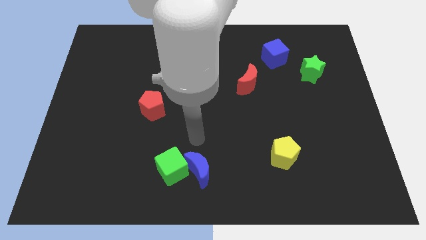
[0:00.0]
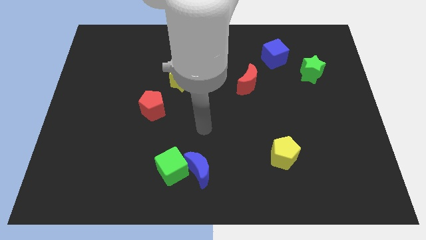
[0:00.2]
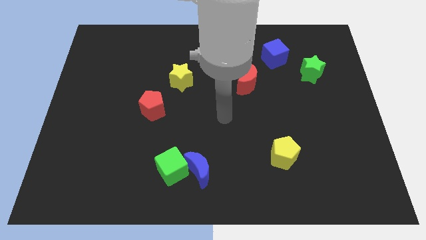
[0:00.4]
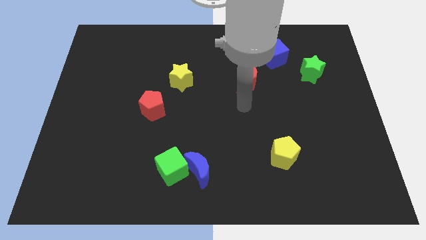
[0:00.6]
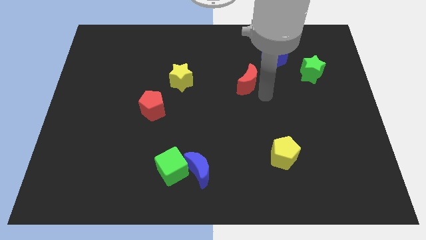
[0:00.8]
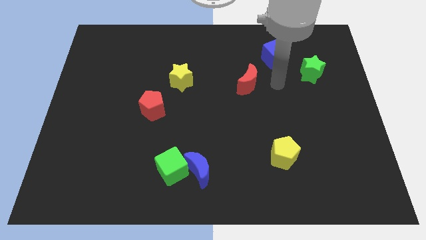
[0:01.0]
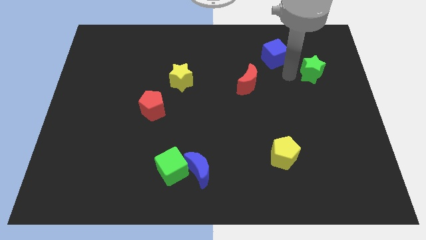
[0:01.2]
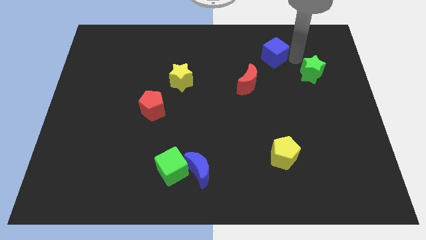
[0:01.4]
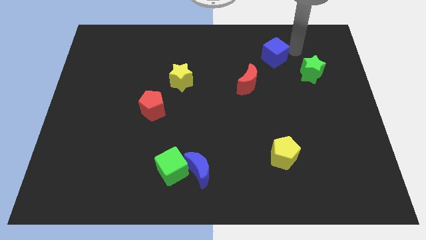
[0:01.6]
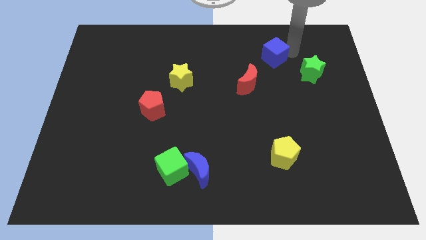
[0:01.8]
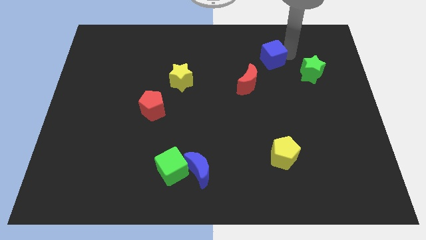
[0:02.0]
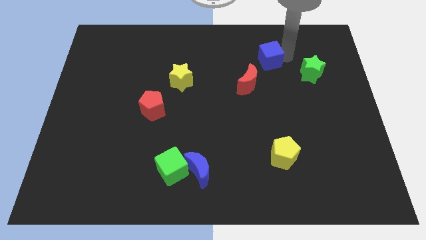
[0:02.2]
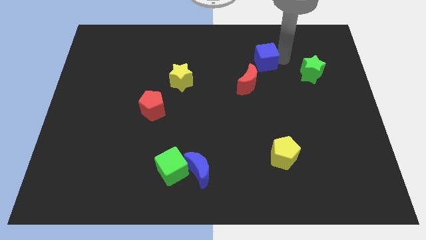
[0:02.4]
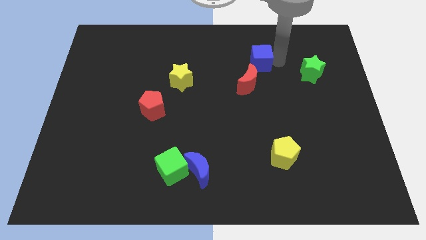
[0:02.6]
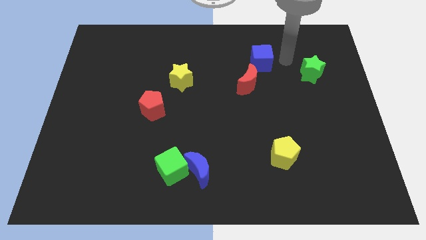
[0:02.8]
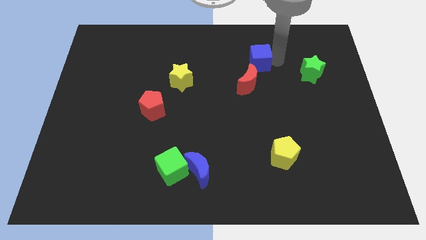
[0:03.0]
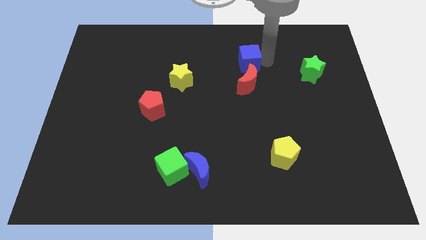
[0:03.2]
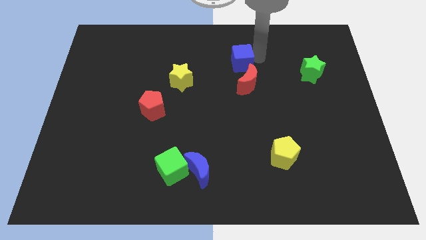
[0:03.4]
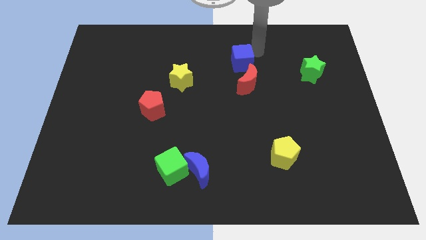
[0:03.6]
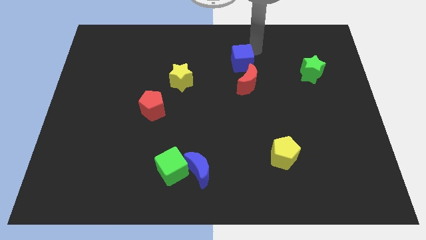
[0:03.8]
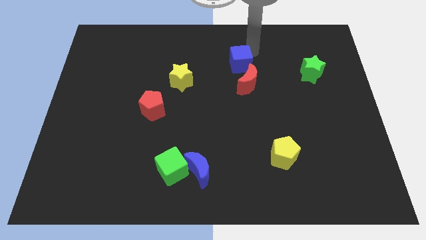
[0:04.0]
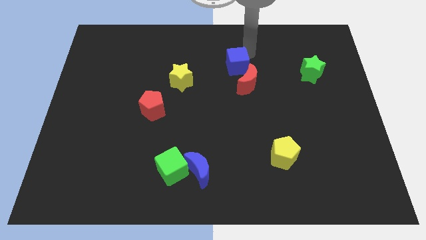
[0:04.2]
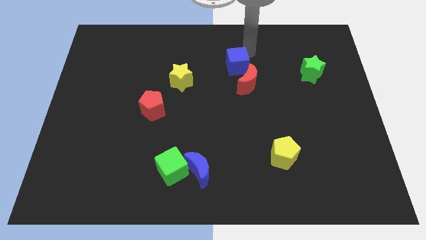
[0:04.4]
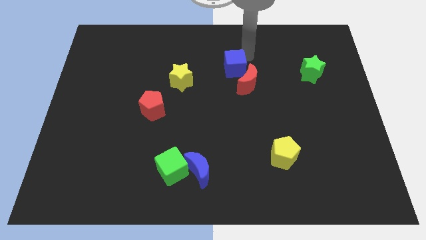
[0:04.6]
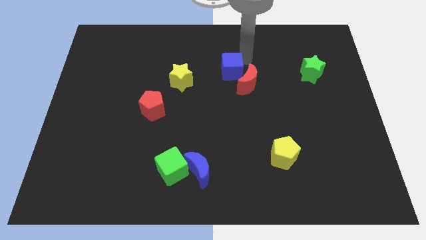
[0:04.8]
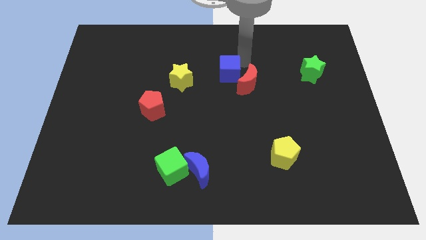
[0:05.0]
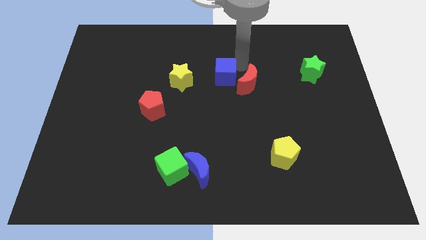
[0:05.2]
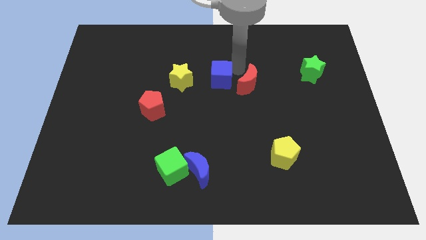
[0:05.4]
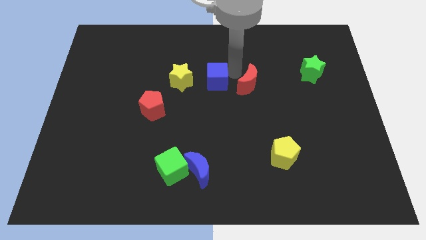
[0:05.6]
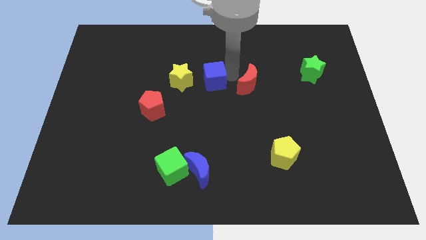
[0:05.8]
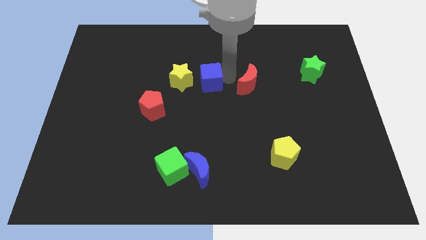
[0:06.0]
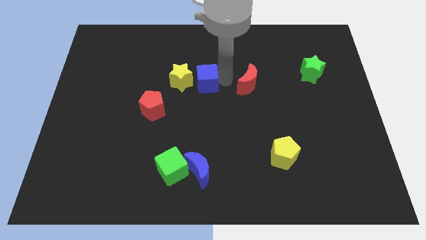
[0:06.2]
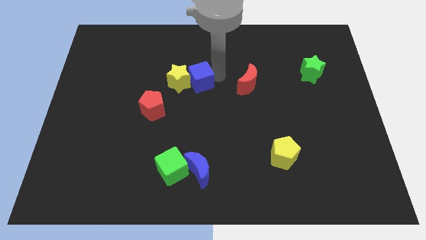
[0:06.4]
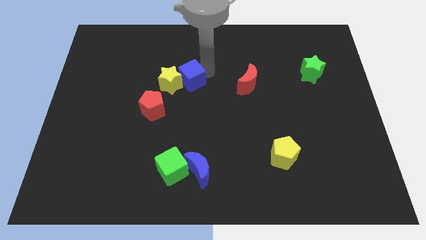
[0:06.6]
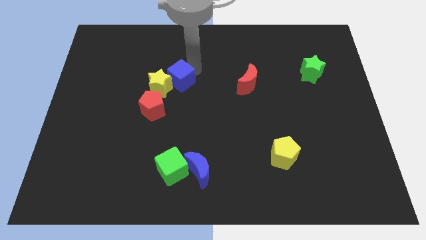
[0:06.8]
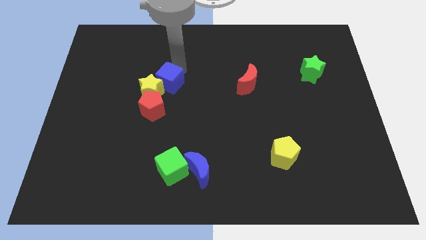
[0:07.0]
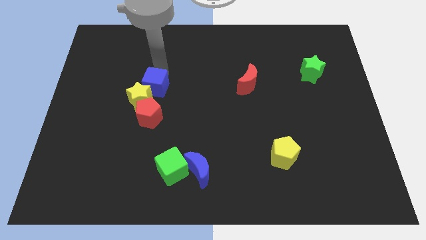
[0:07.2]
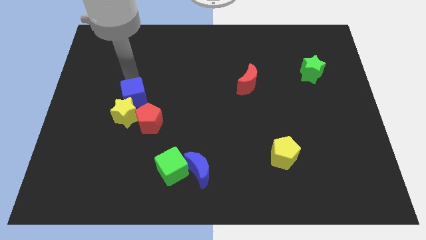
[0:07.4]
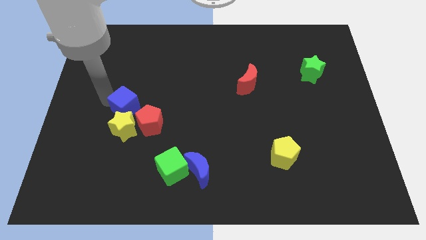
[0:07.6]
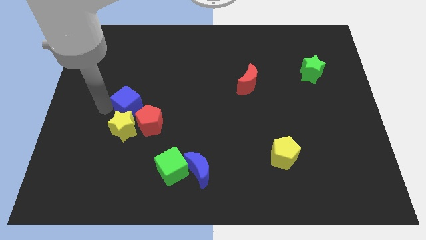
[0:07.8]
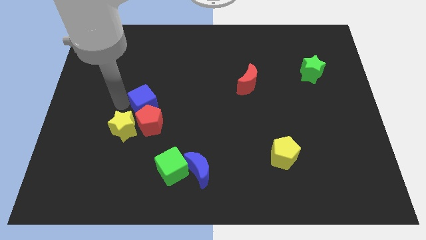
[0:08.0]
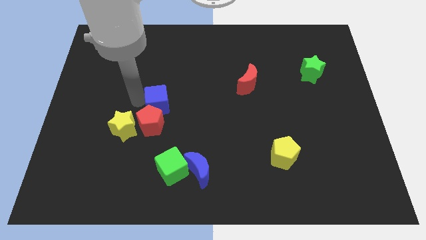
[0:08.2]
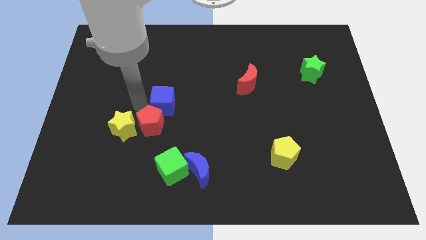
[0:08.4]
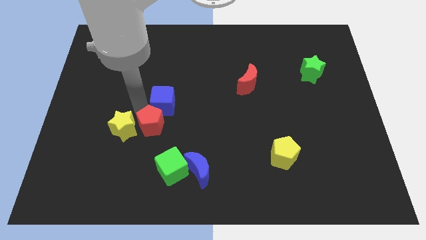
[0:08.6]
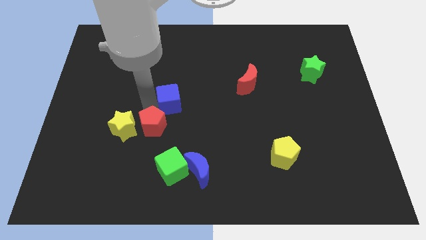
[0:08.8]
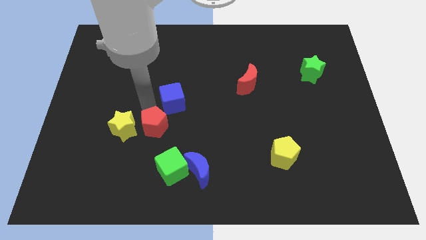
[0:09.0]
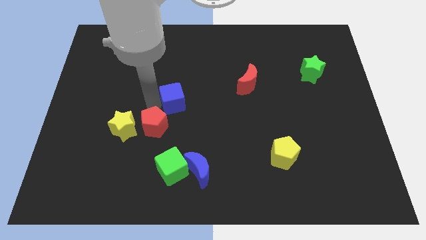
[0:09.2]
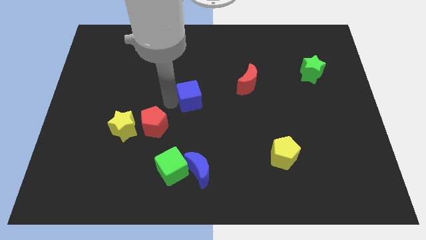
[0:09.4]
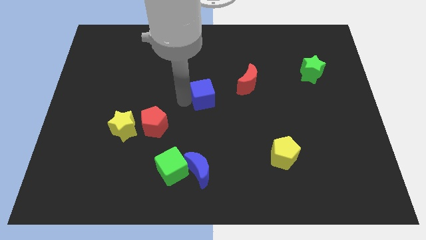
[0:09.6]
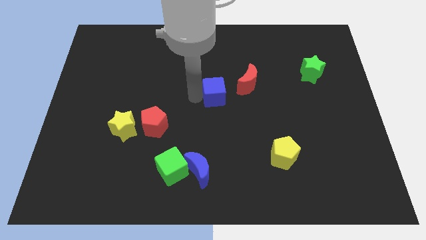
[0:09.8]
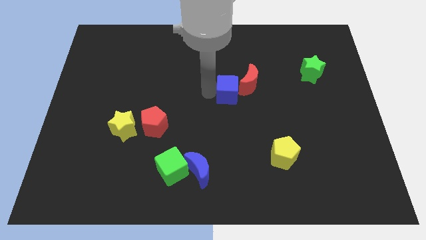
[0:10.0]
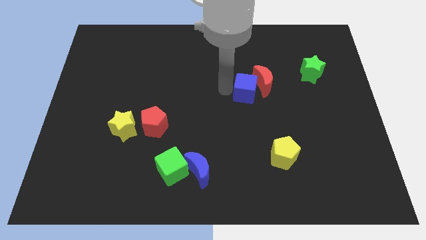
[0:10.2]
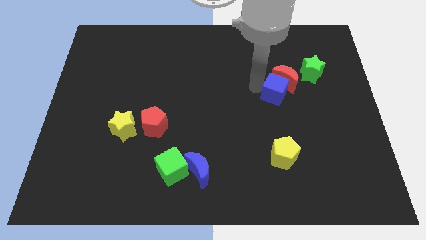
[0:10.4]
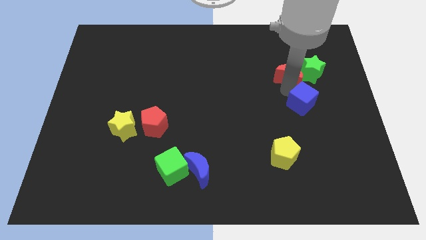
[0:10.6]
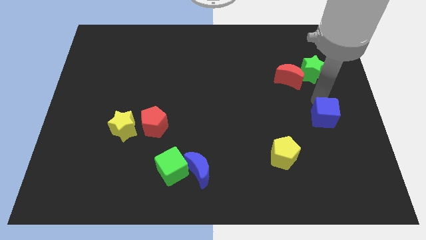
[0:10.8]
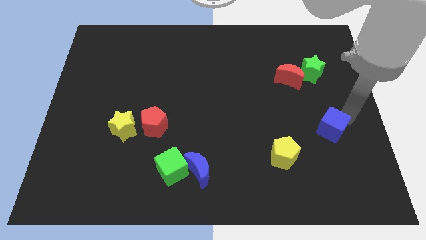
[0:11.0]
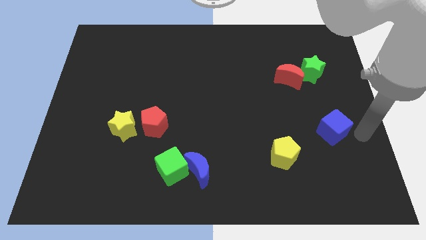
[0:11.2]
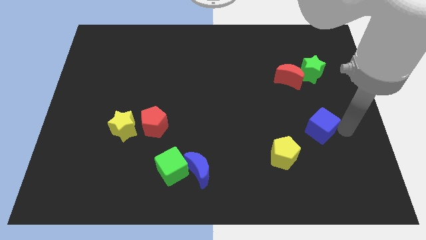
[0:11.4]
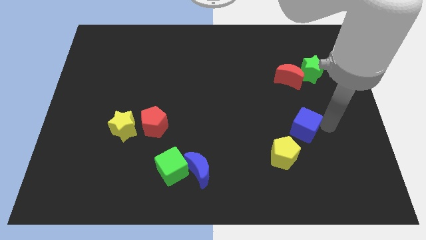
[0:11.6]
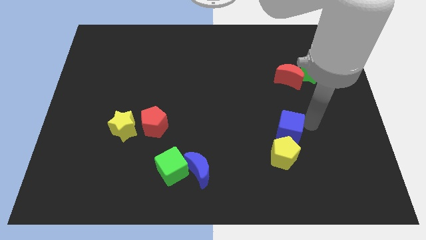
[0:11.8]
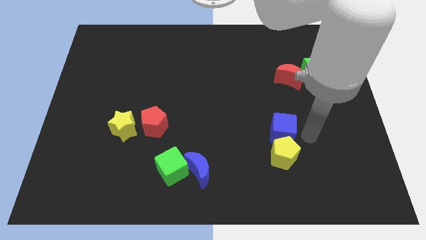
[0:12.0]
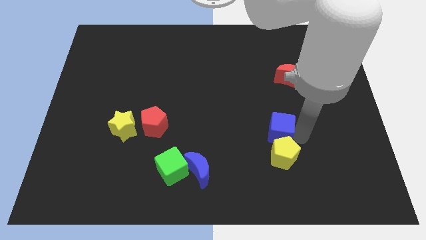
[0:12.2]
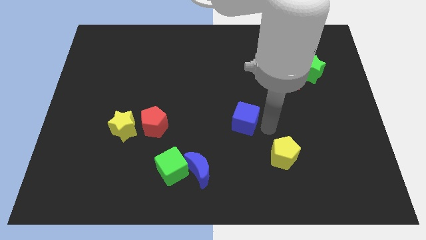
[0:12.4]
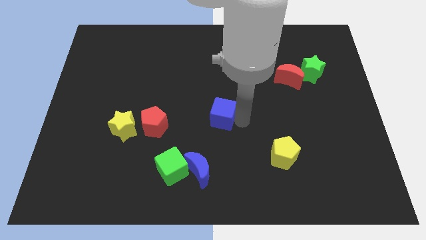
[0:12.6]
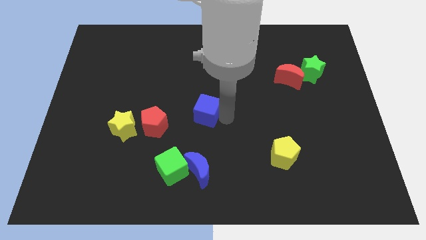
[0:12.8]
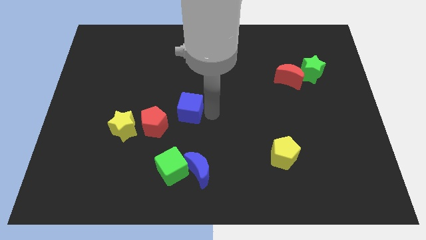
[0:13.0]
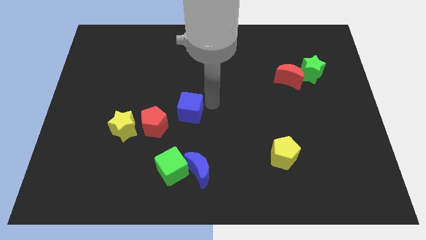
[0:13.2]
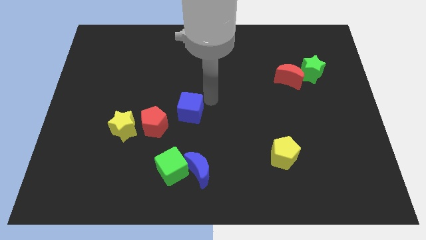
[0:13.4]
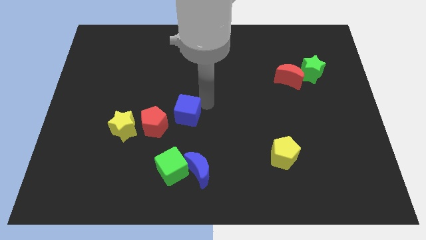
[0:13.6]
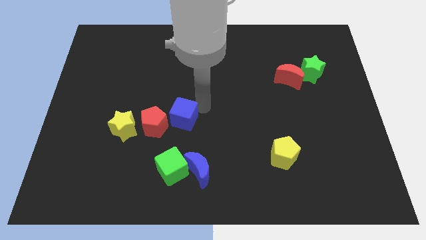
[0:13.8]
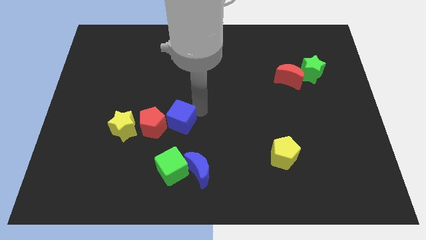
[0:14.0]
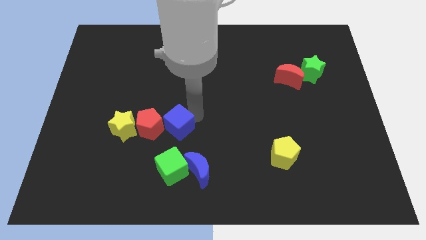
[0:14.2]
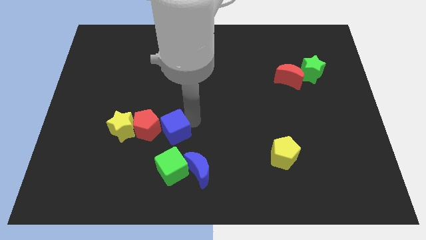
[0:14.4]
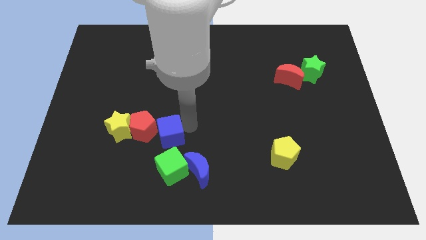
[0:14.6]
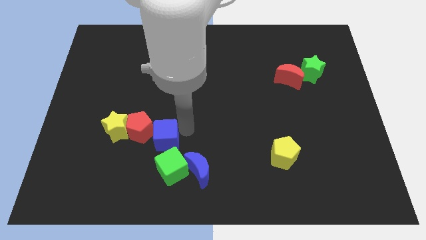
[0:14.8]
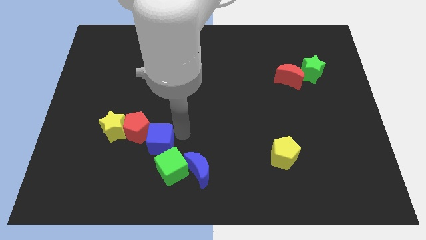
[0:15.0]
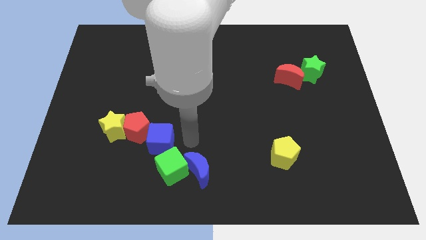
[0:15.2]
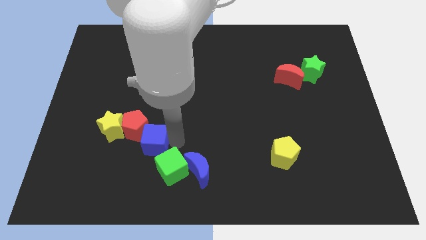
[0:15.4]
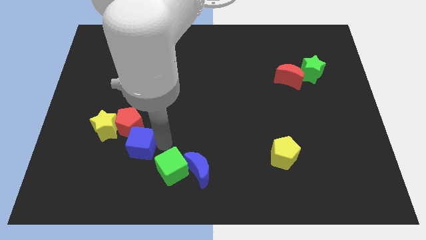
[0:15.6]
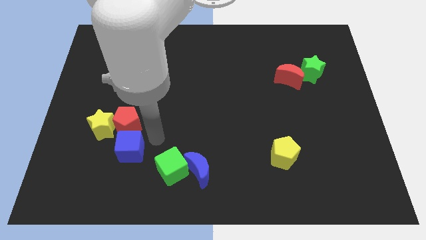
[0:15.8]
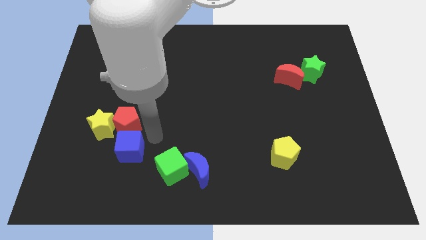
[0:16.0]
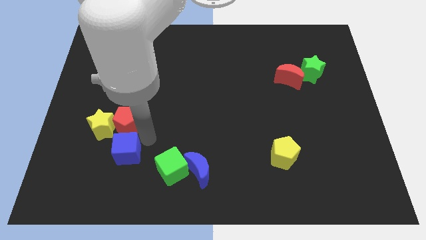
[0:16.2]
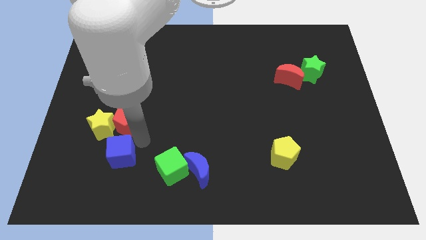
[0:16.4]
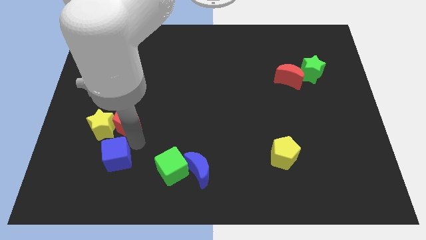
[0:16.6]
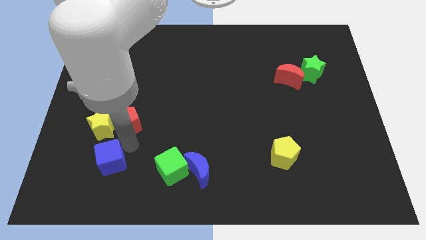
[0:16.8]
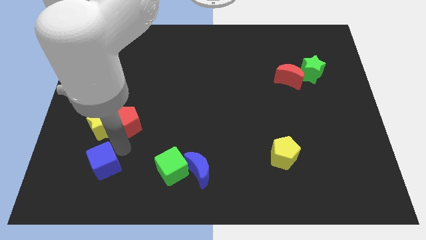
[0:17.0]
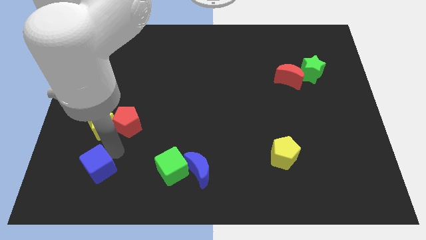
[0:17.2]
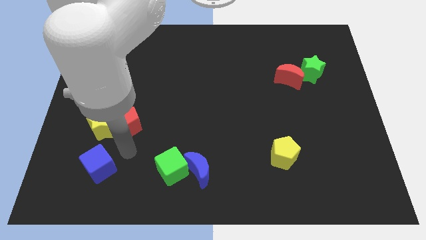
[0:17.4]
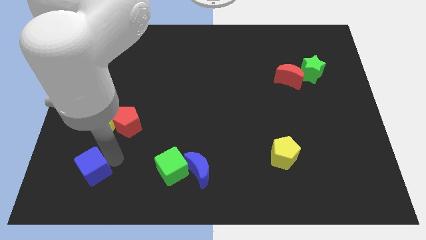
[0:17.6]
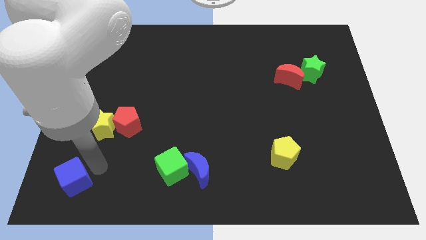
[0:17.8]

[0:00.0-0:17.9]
put the blue cube to the bottom left
